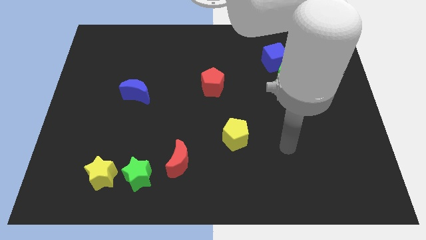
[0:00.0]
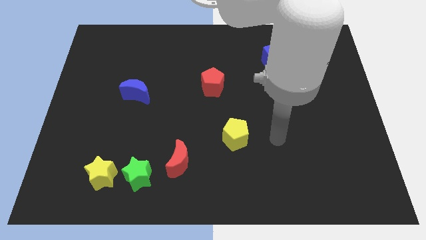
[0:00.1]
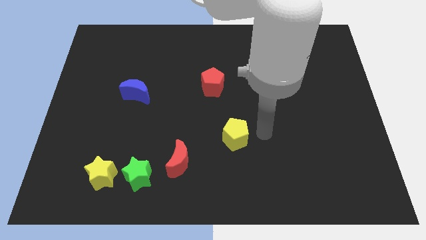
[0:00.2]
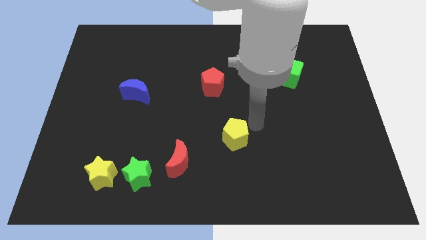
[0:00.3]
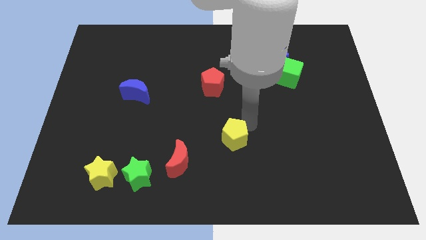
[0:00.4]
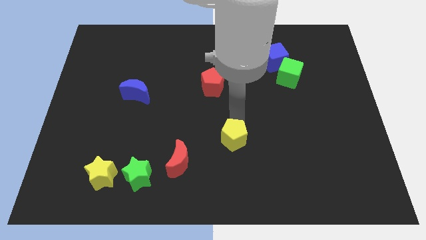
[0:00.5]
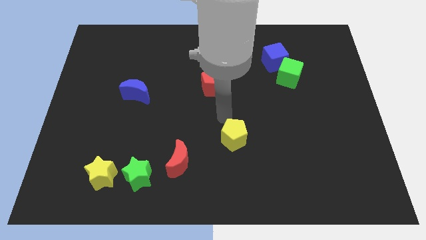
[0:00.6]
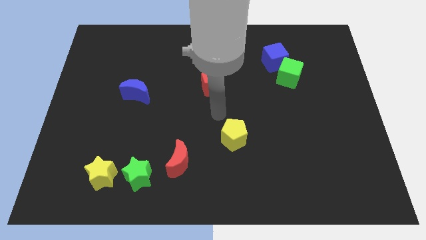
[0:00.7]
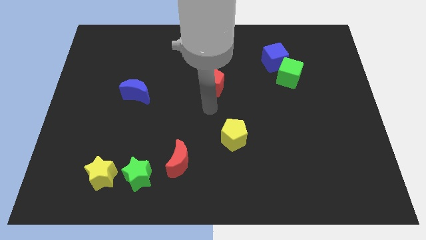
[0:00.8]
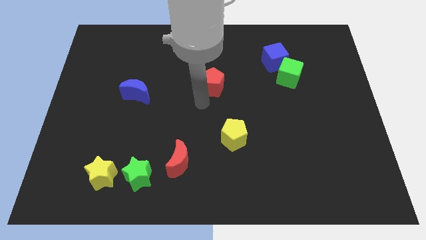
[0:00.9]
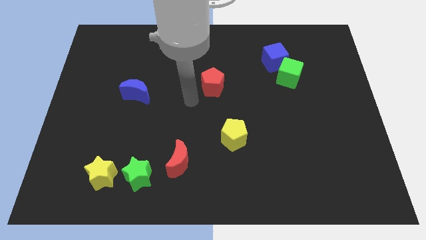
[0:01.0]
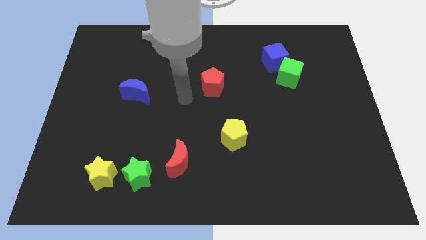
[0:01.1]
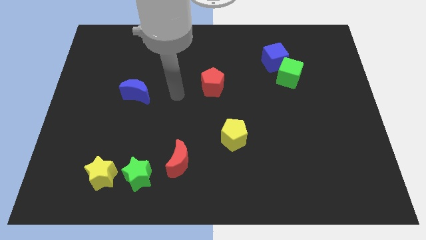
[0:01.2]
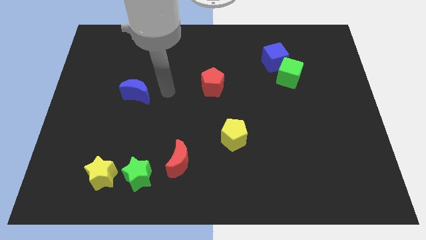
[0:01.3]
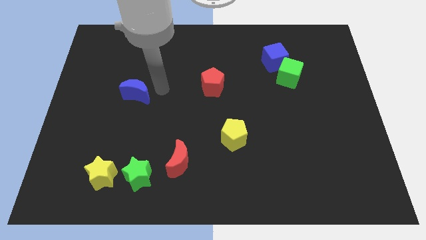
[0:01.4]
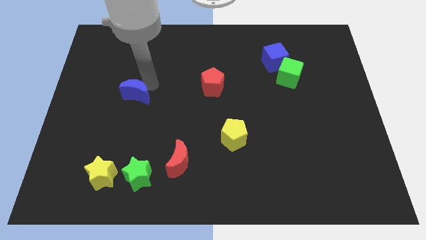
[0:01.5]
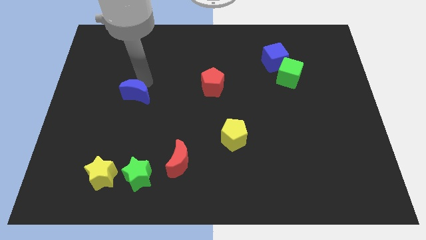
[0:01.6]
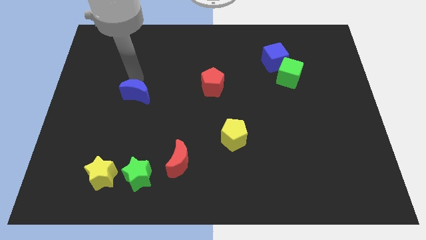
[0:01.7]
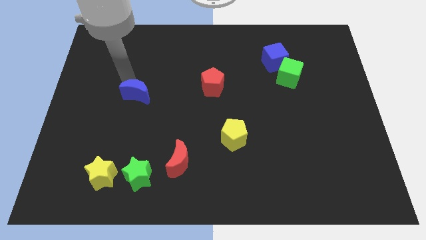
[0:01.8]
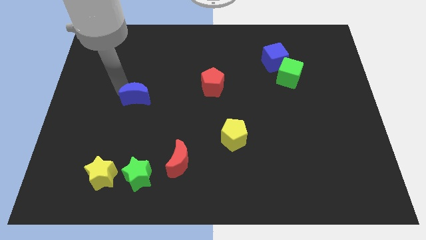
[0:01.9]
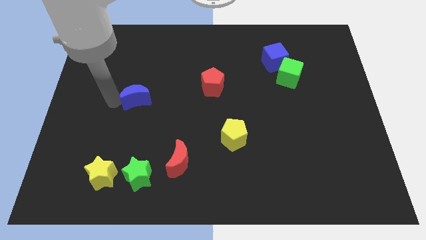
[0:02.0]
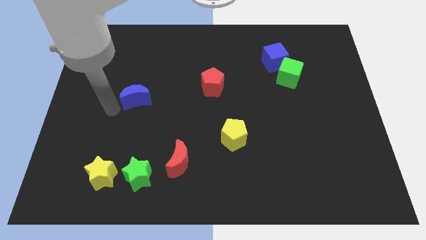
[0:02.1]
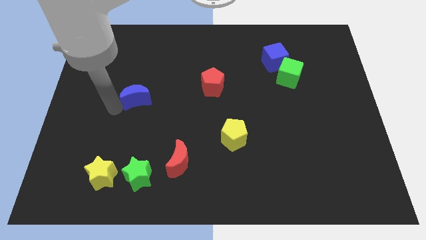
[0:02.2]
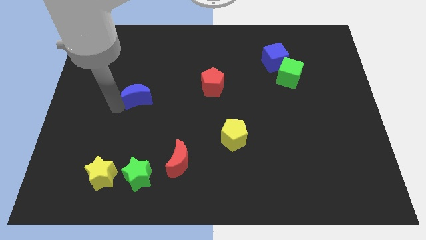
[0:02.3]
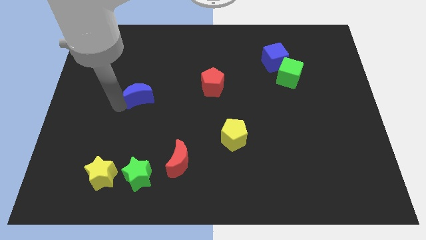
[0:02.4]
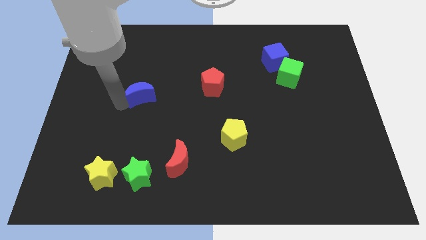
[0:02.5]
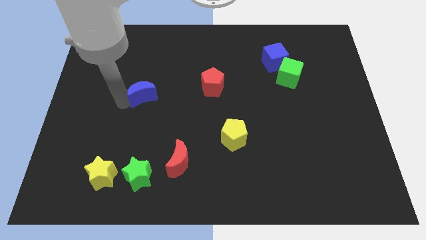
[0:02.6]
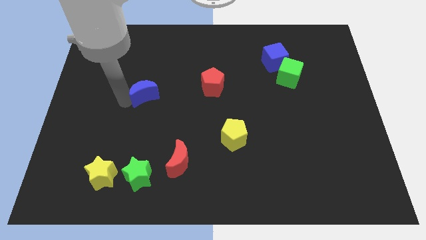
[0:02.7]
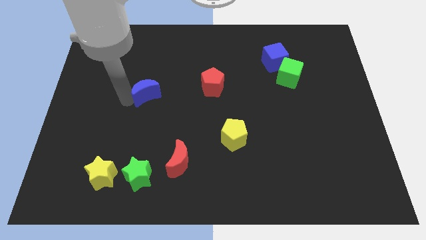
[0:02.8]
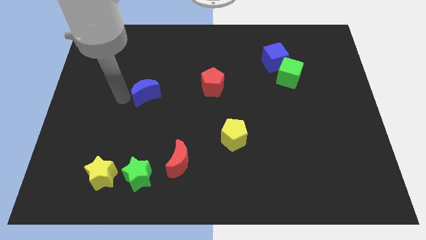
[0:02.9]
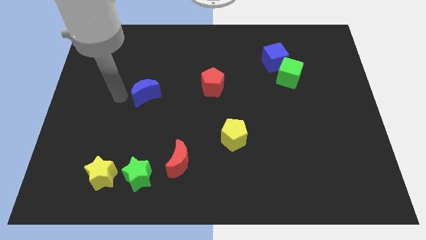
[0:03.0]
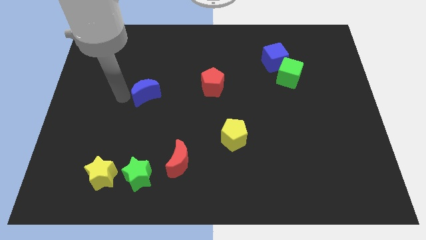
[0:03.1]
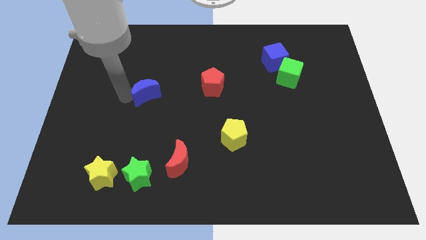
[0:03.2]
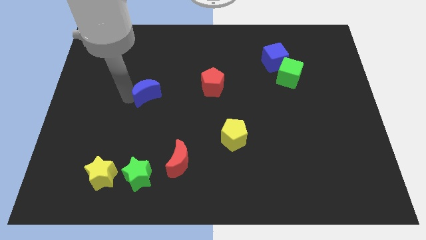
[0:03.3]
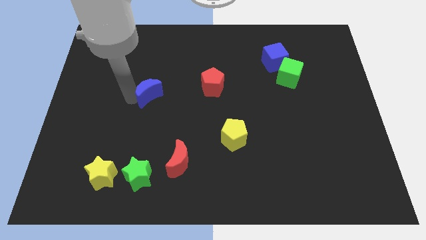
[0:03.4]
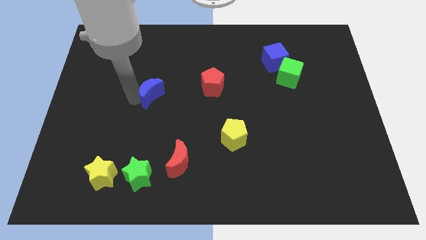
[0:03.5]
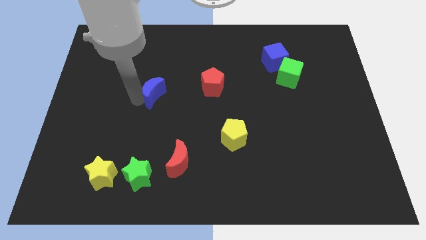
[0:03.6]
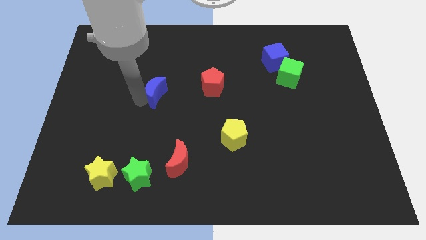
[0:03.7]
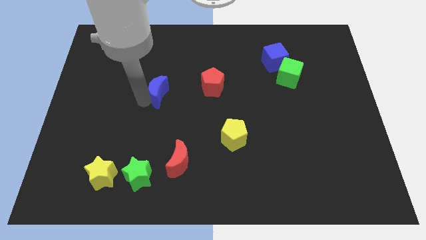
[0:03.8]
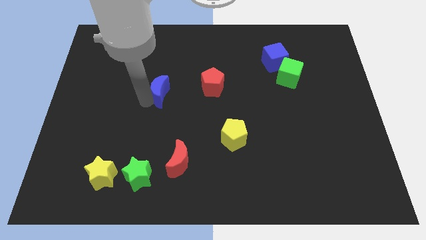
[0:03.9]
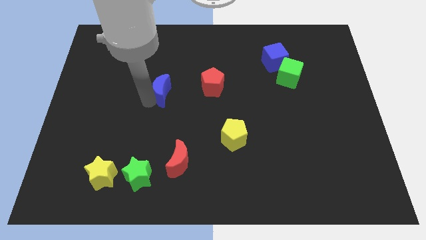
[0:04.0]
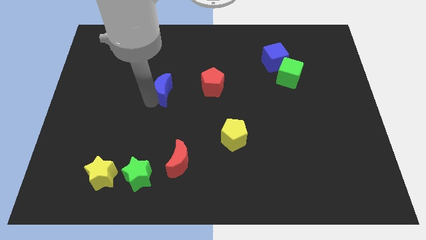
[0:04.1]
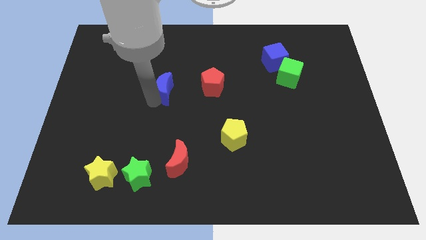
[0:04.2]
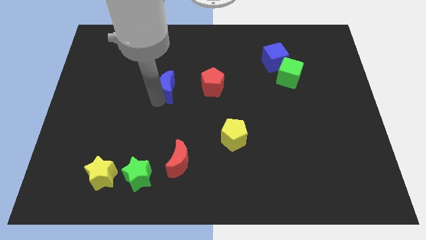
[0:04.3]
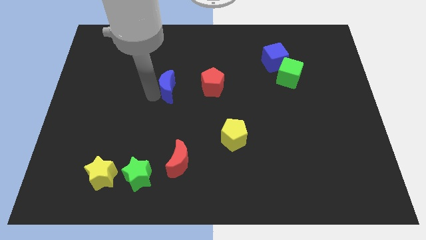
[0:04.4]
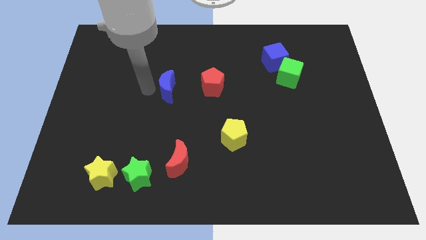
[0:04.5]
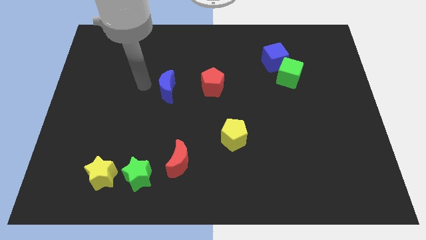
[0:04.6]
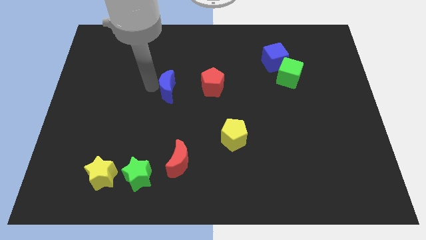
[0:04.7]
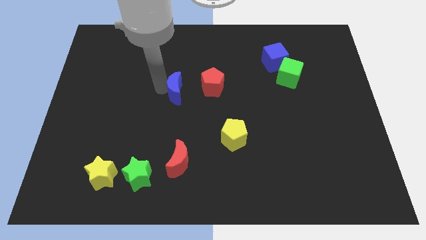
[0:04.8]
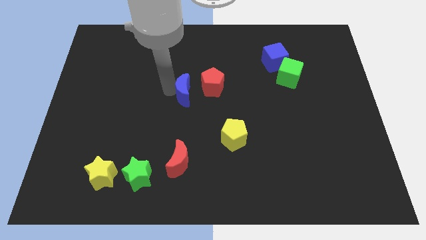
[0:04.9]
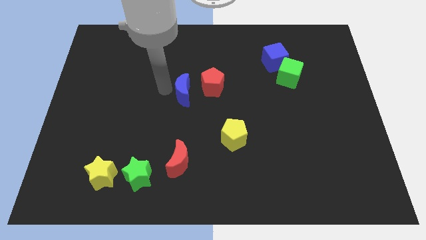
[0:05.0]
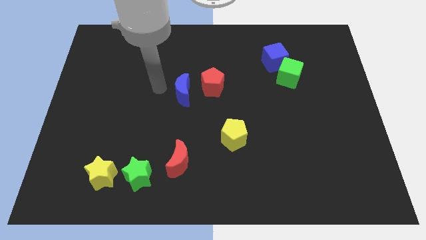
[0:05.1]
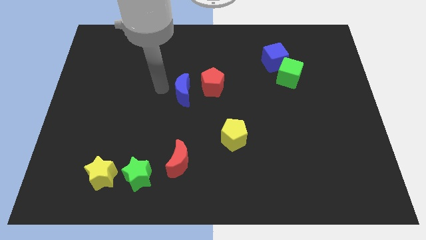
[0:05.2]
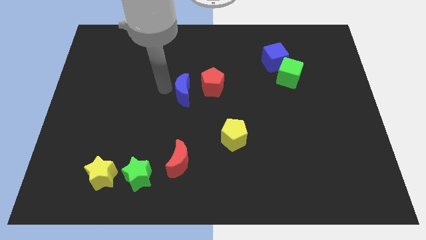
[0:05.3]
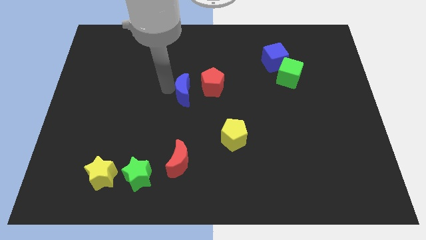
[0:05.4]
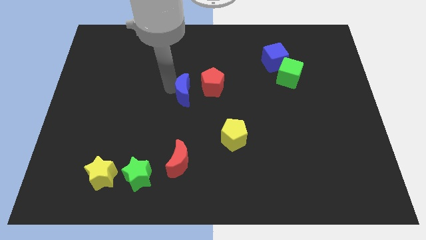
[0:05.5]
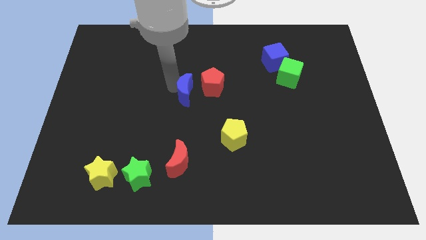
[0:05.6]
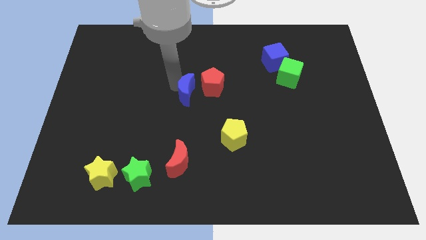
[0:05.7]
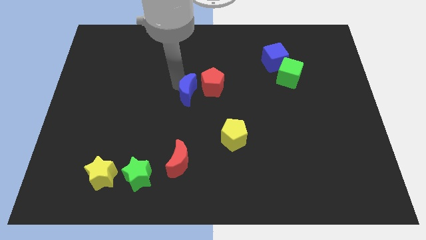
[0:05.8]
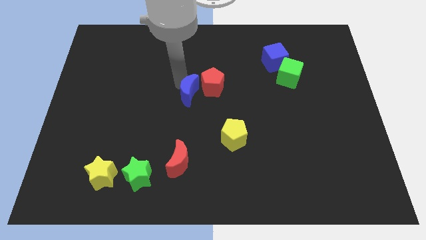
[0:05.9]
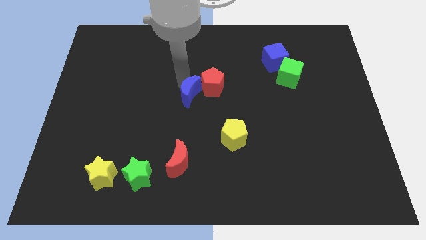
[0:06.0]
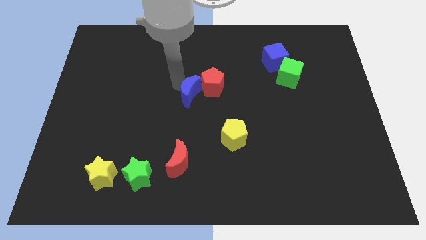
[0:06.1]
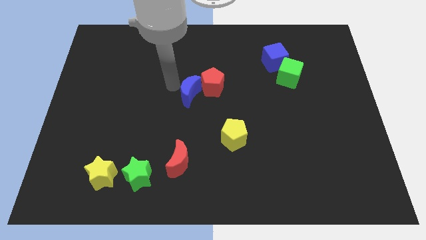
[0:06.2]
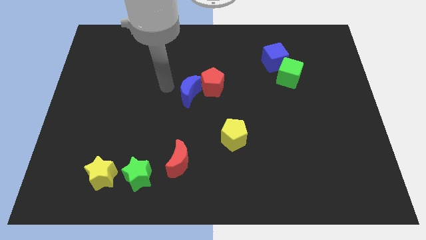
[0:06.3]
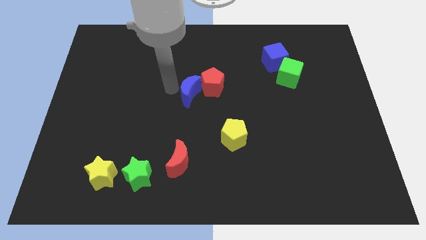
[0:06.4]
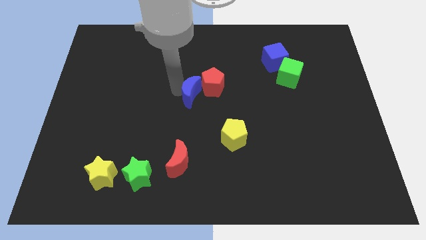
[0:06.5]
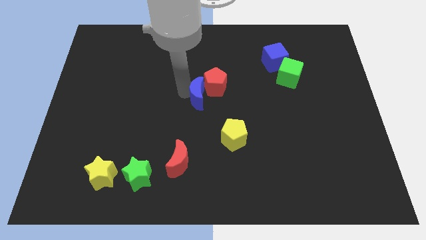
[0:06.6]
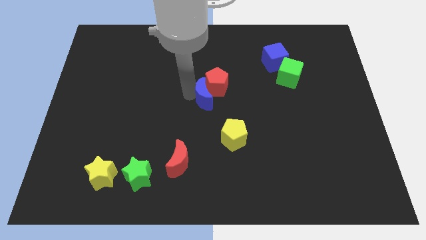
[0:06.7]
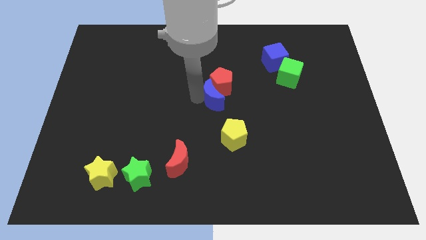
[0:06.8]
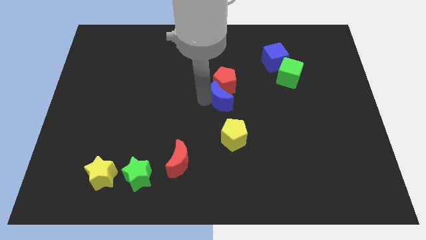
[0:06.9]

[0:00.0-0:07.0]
push the blue moon right

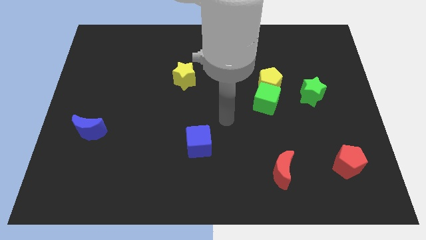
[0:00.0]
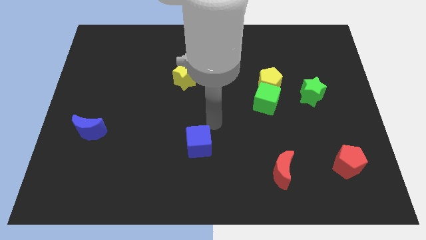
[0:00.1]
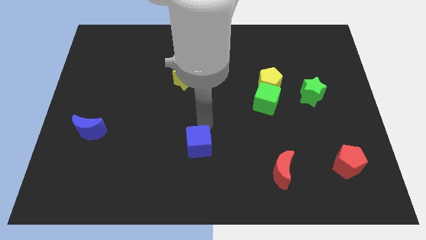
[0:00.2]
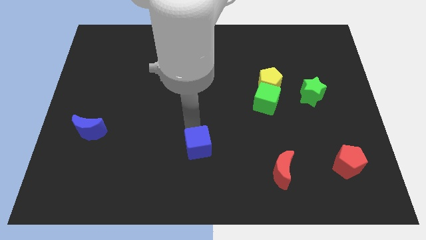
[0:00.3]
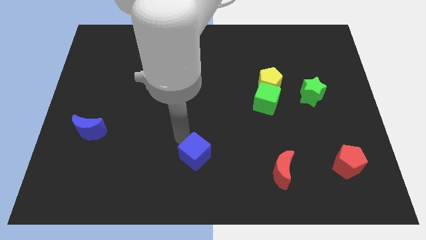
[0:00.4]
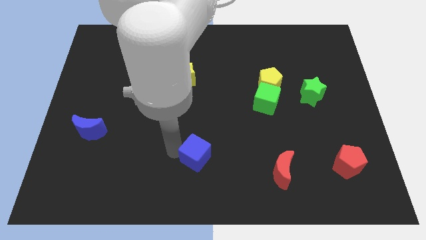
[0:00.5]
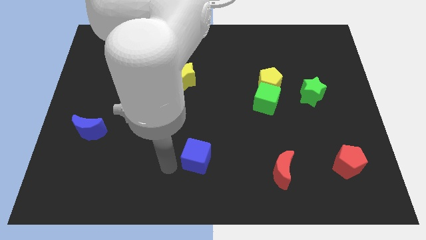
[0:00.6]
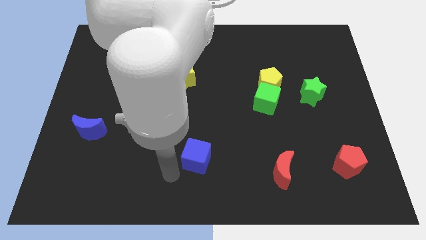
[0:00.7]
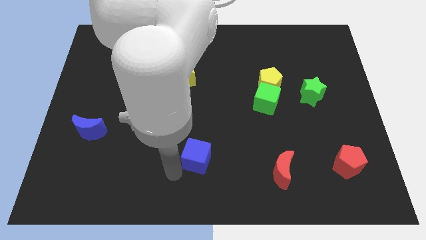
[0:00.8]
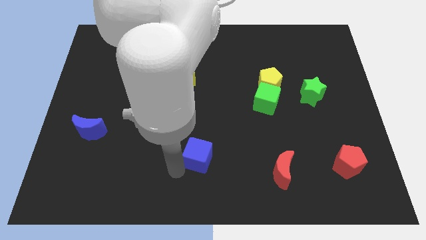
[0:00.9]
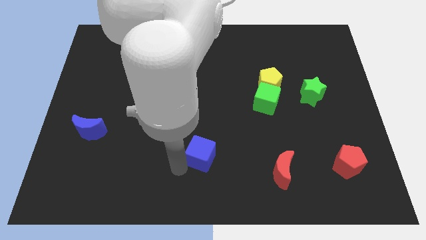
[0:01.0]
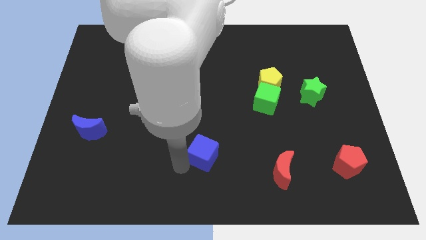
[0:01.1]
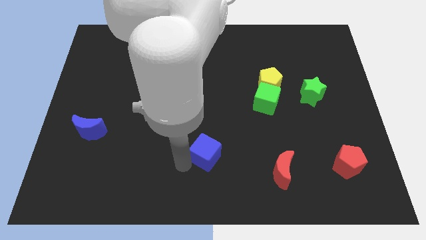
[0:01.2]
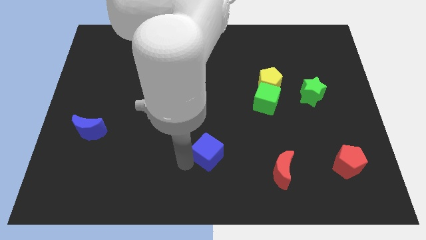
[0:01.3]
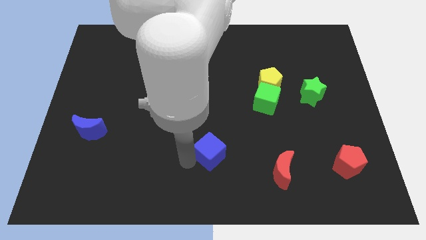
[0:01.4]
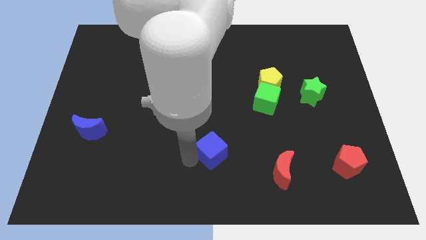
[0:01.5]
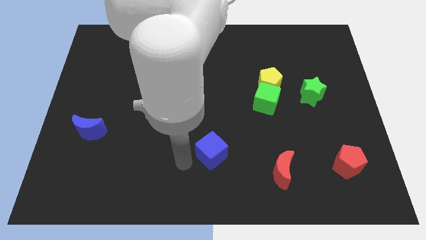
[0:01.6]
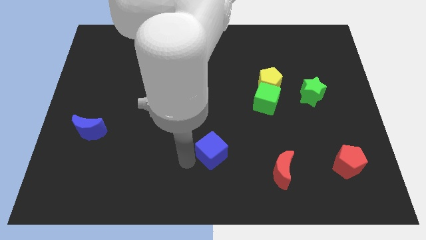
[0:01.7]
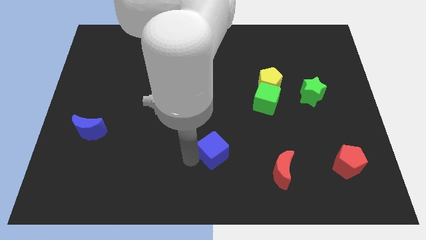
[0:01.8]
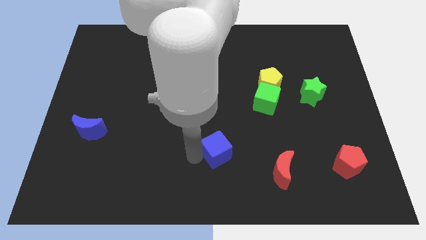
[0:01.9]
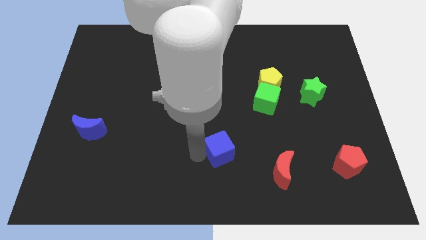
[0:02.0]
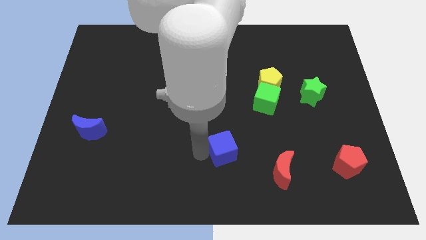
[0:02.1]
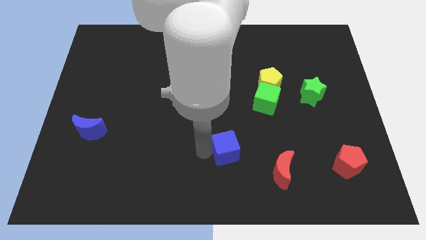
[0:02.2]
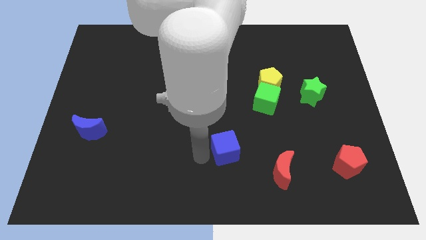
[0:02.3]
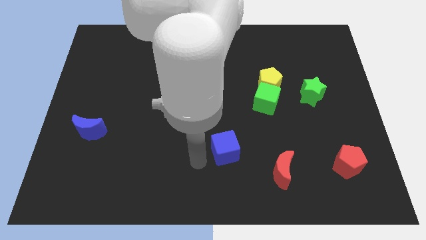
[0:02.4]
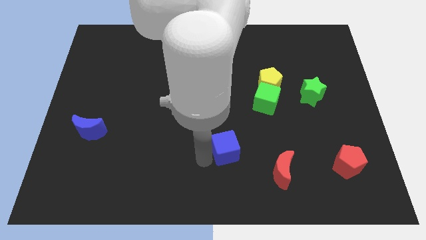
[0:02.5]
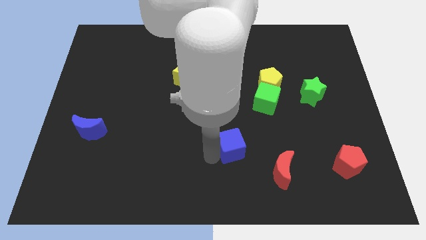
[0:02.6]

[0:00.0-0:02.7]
slightly move the blue cube right
